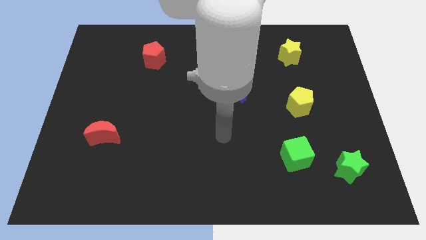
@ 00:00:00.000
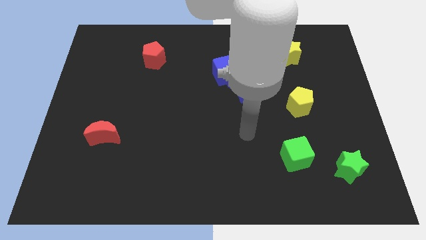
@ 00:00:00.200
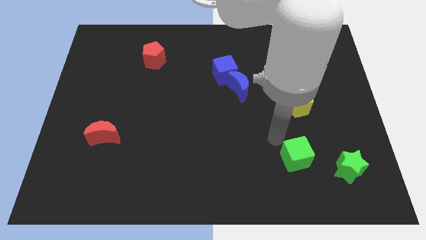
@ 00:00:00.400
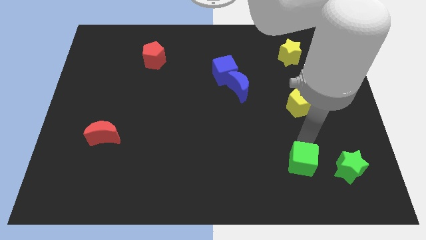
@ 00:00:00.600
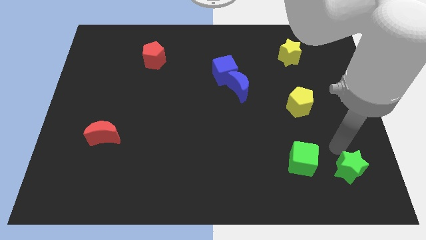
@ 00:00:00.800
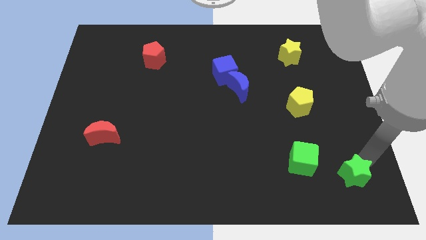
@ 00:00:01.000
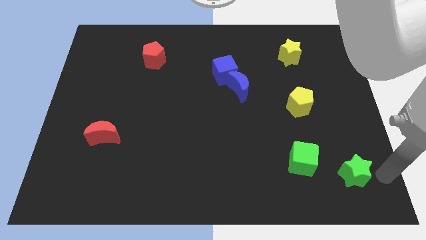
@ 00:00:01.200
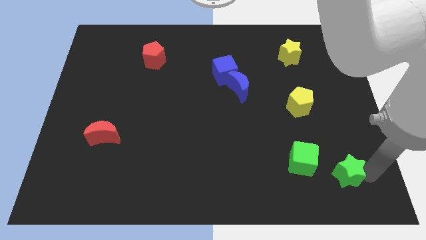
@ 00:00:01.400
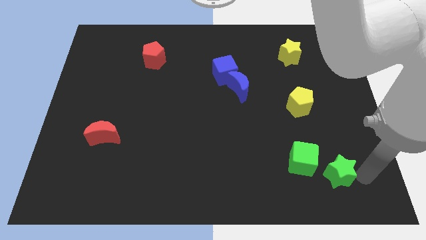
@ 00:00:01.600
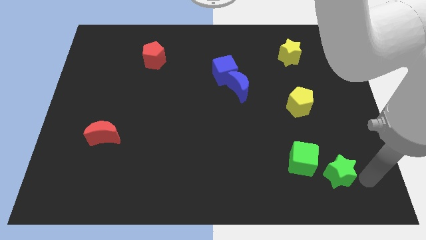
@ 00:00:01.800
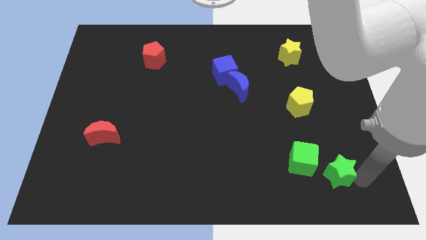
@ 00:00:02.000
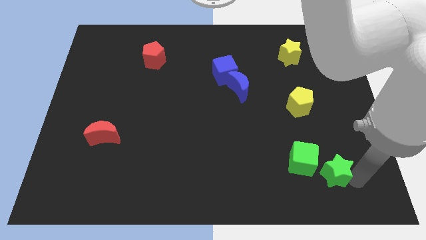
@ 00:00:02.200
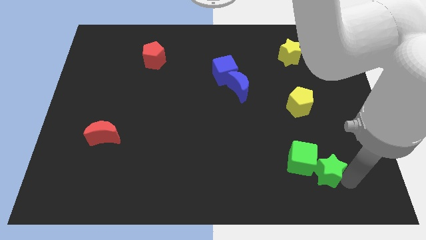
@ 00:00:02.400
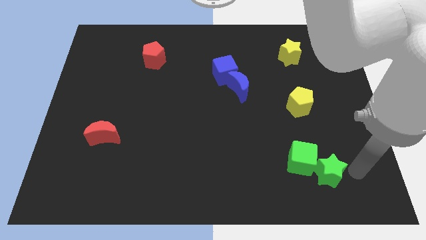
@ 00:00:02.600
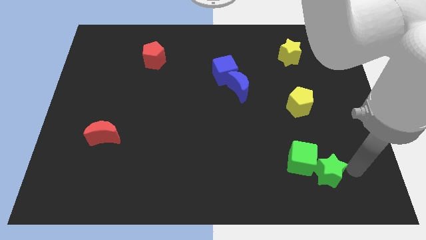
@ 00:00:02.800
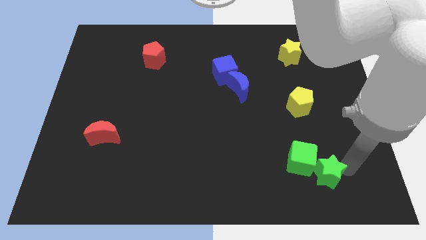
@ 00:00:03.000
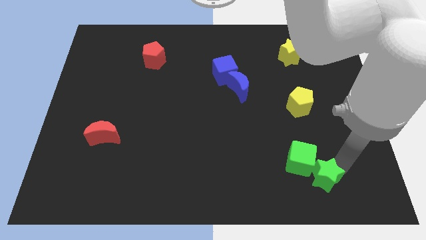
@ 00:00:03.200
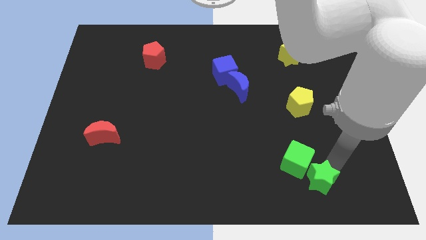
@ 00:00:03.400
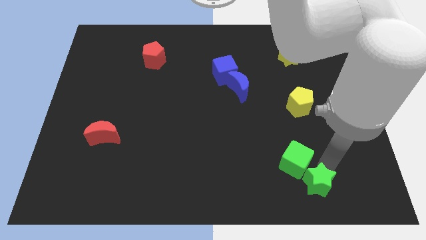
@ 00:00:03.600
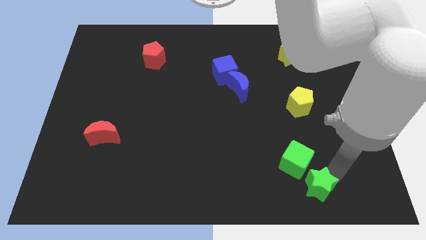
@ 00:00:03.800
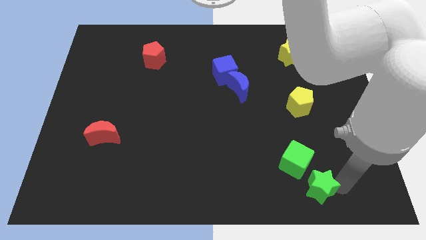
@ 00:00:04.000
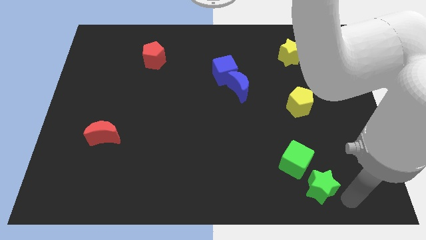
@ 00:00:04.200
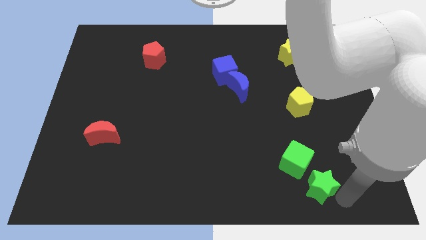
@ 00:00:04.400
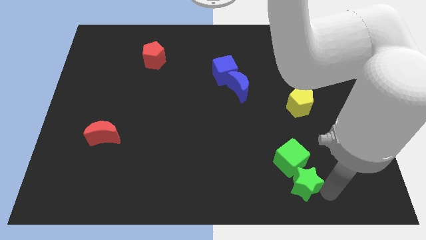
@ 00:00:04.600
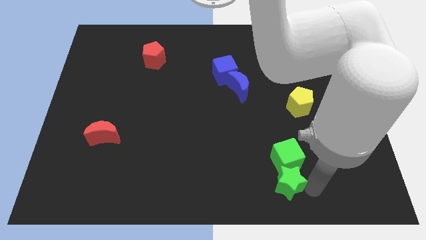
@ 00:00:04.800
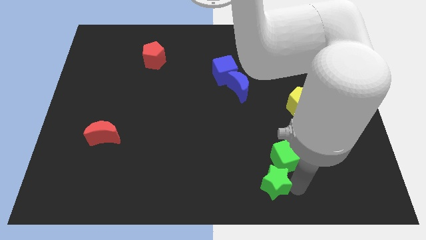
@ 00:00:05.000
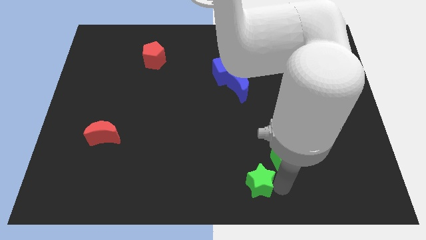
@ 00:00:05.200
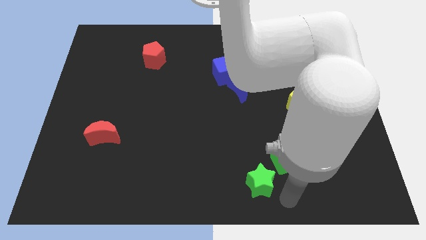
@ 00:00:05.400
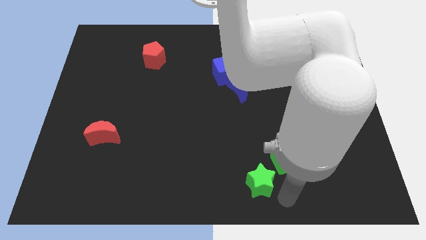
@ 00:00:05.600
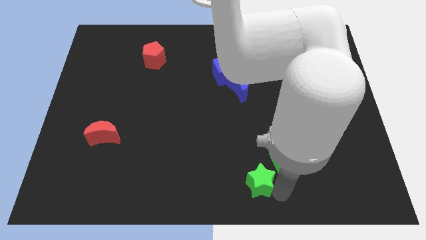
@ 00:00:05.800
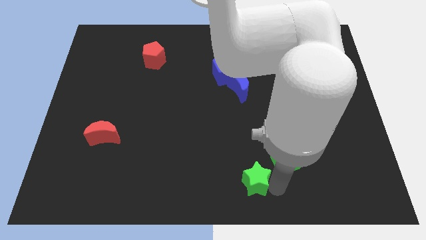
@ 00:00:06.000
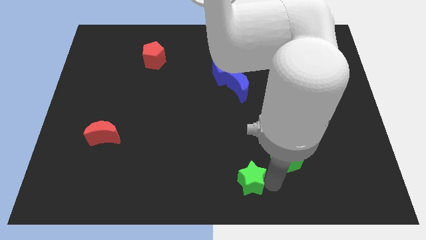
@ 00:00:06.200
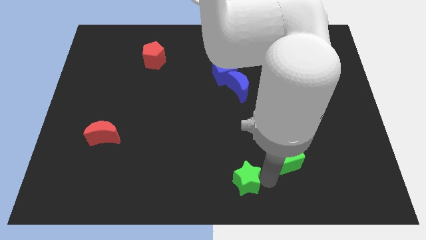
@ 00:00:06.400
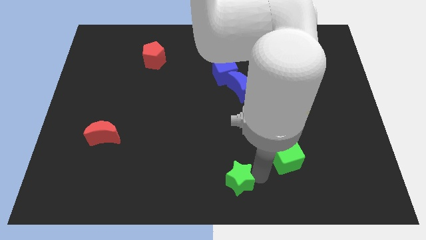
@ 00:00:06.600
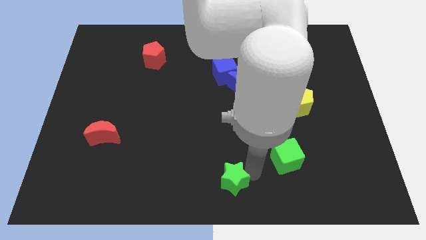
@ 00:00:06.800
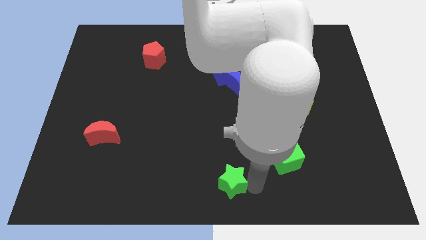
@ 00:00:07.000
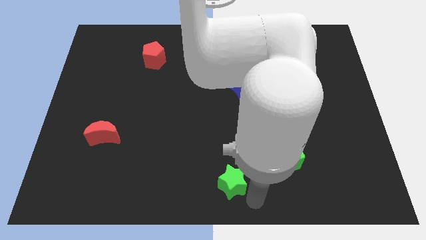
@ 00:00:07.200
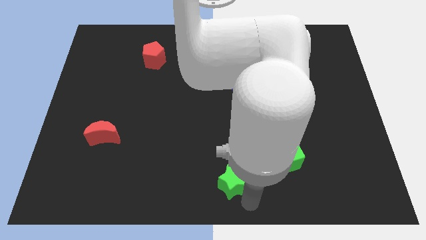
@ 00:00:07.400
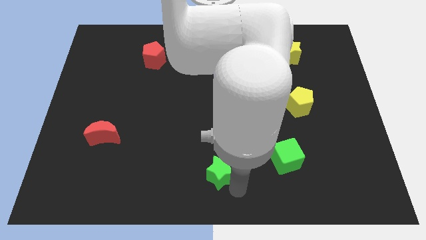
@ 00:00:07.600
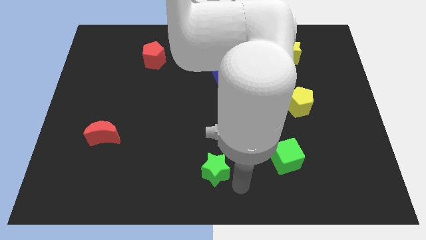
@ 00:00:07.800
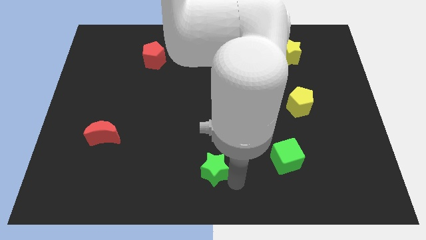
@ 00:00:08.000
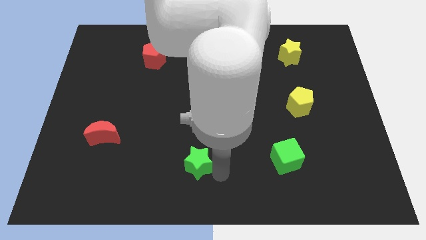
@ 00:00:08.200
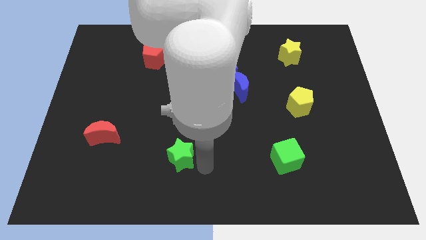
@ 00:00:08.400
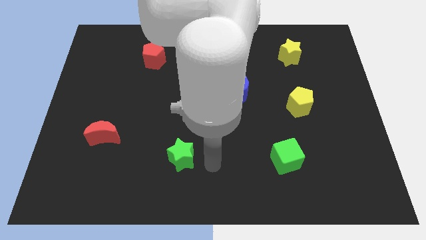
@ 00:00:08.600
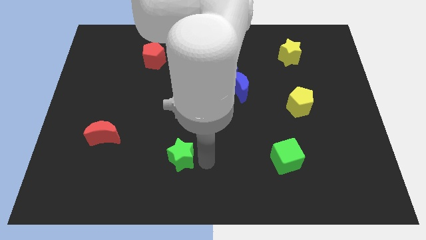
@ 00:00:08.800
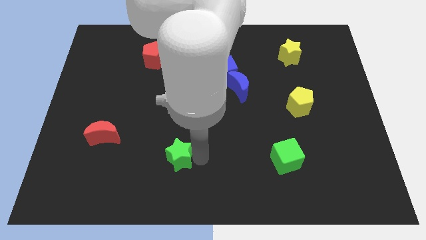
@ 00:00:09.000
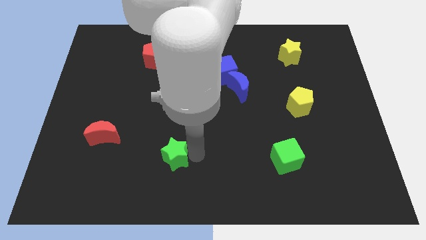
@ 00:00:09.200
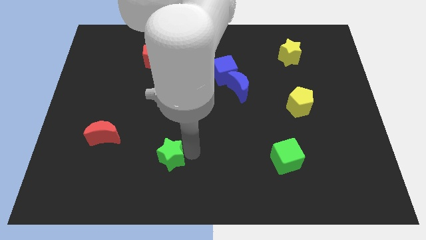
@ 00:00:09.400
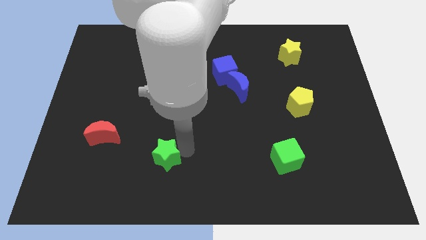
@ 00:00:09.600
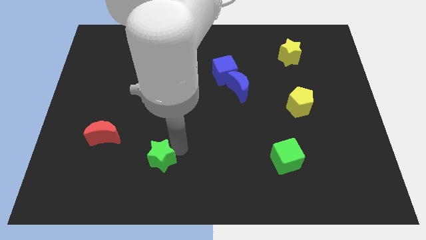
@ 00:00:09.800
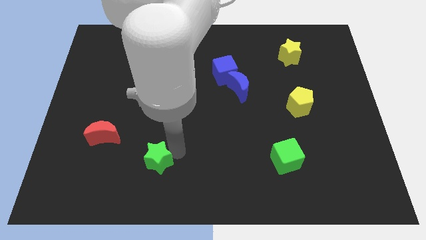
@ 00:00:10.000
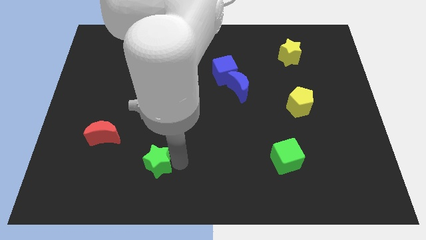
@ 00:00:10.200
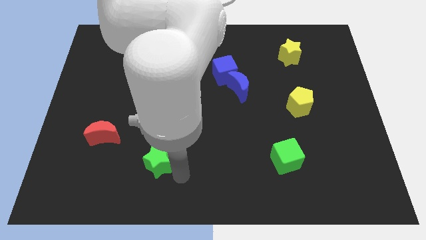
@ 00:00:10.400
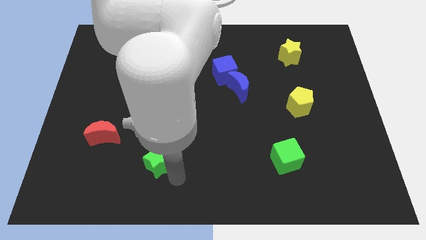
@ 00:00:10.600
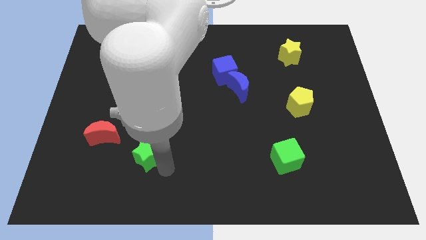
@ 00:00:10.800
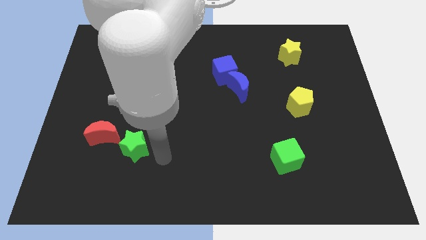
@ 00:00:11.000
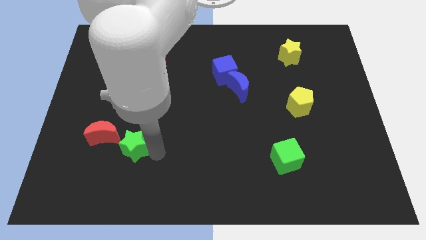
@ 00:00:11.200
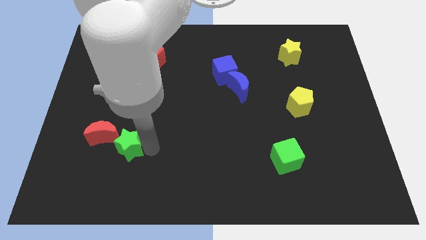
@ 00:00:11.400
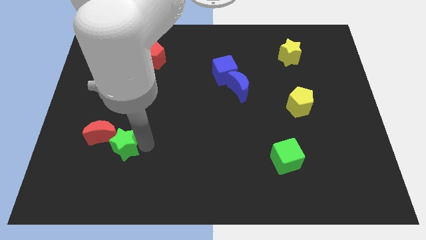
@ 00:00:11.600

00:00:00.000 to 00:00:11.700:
slide the green star towards the red moon

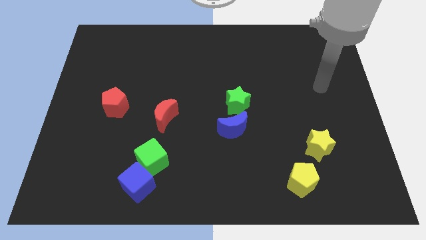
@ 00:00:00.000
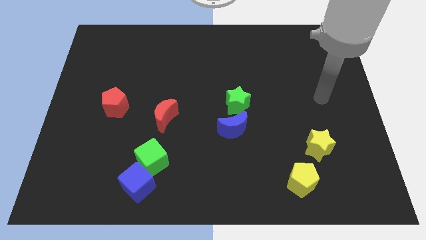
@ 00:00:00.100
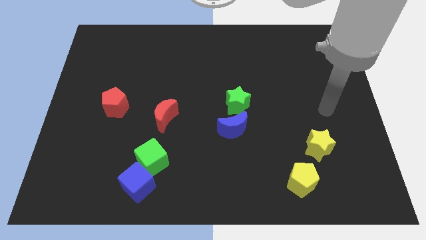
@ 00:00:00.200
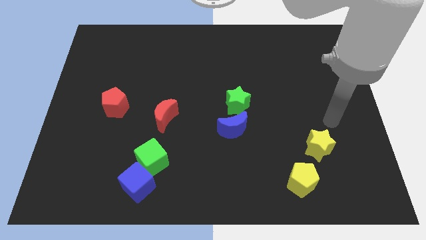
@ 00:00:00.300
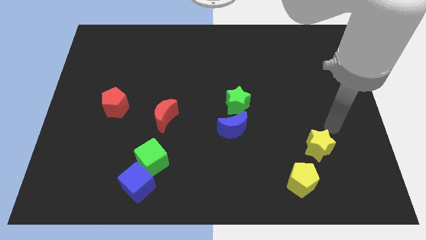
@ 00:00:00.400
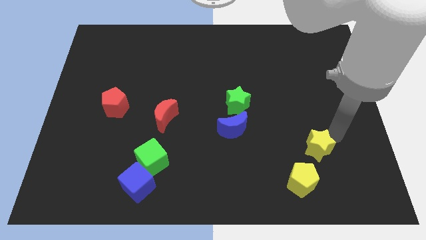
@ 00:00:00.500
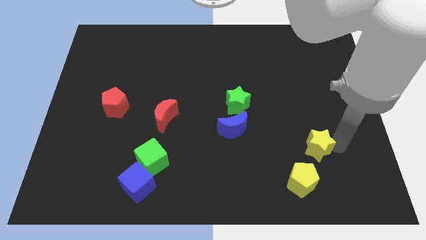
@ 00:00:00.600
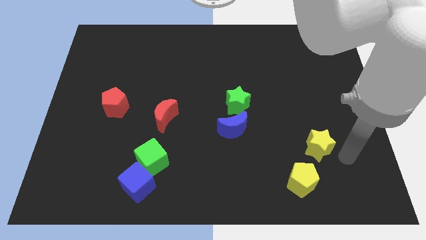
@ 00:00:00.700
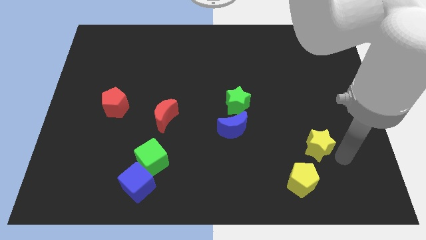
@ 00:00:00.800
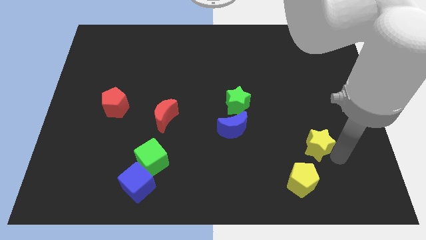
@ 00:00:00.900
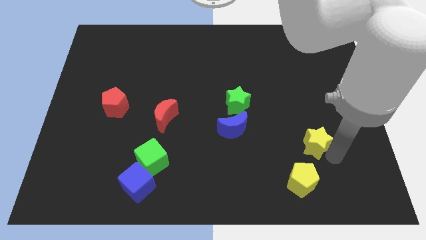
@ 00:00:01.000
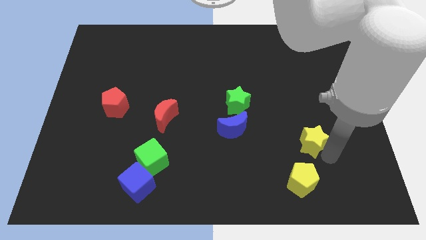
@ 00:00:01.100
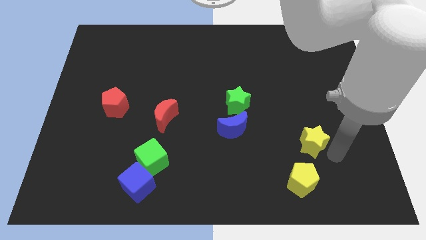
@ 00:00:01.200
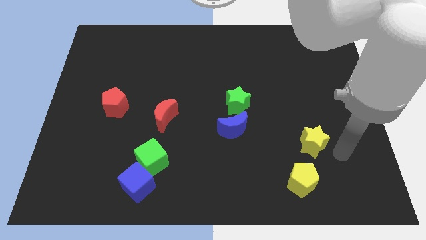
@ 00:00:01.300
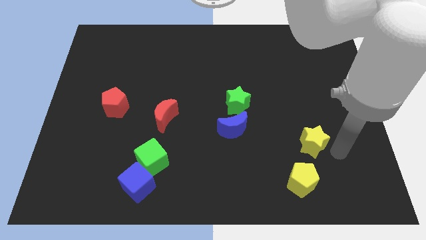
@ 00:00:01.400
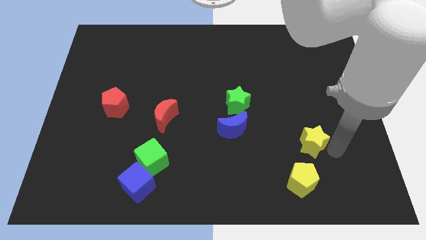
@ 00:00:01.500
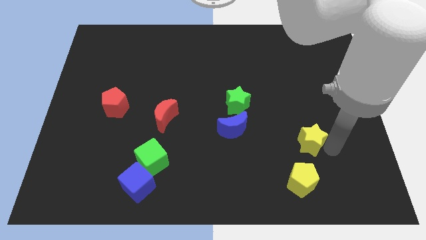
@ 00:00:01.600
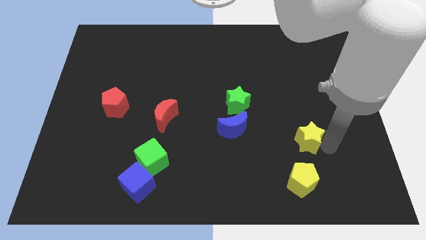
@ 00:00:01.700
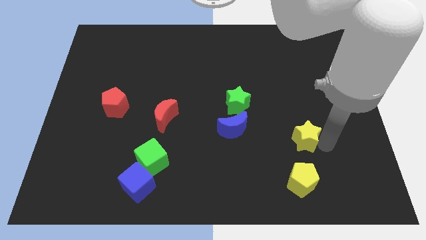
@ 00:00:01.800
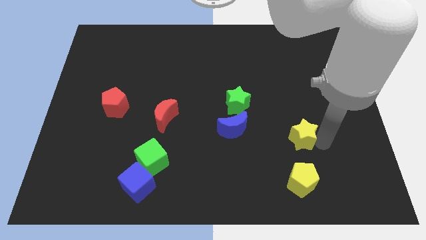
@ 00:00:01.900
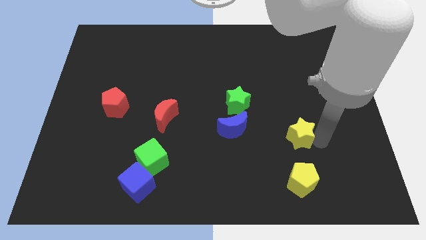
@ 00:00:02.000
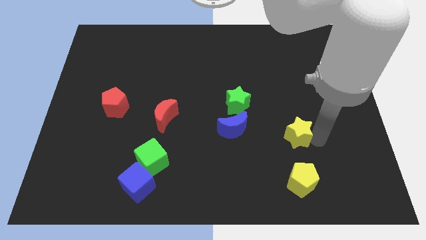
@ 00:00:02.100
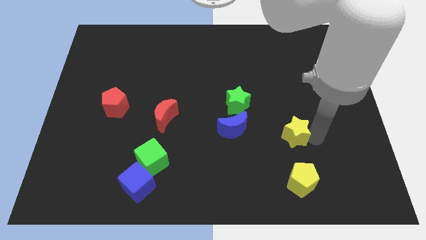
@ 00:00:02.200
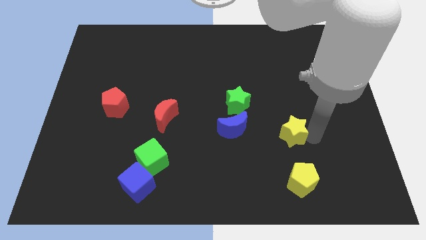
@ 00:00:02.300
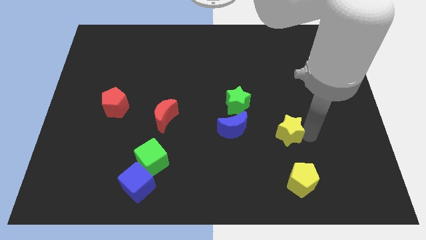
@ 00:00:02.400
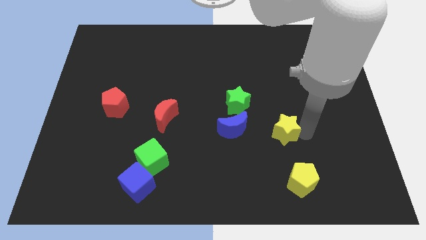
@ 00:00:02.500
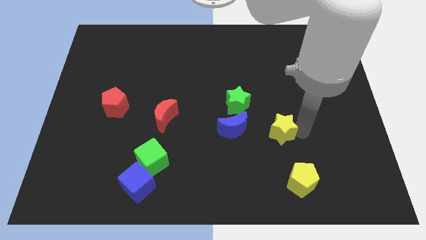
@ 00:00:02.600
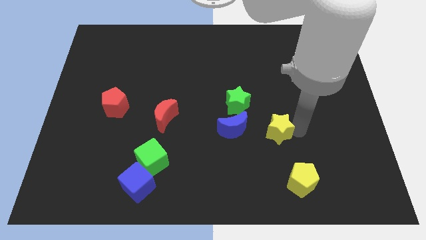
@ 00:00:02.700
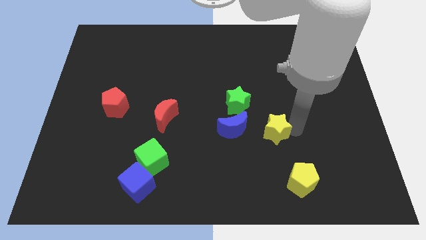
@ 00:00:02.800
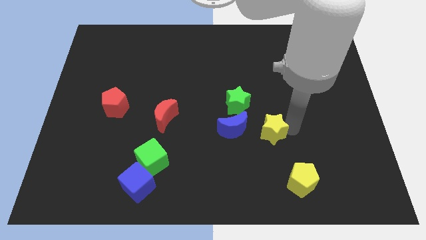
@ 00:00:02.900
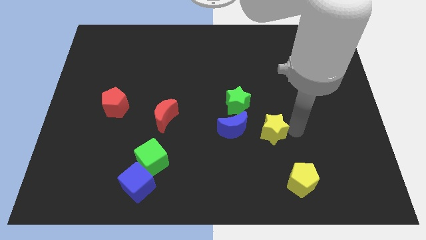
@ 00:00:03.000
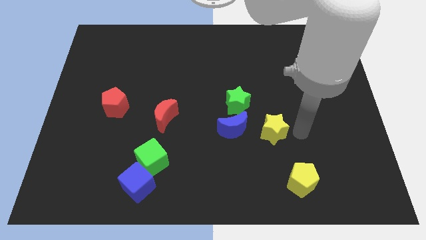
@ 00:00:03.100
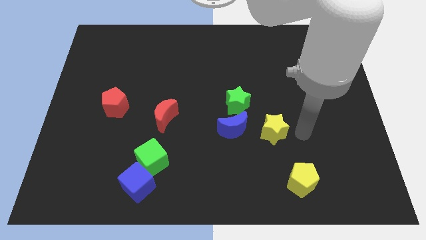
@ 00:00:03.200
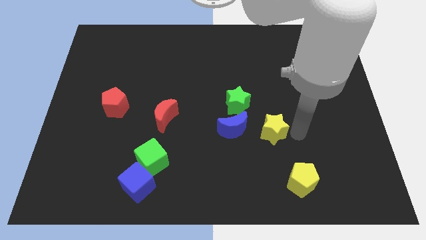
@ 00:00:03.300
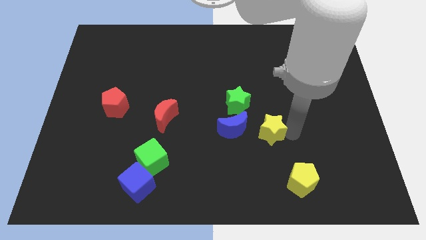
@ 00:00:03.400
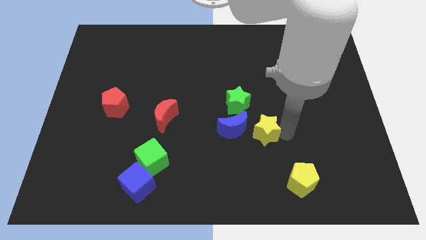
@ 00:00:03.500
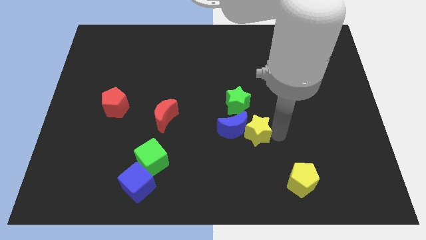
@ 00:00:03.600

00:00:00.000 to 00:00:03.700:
put the yellow star close to the blue moon
